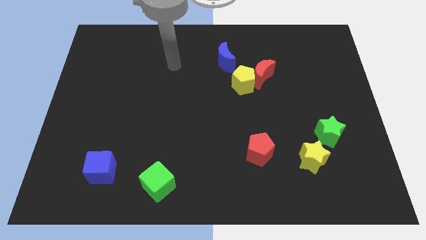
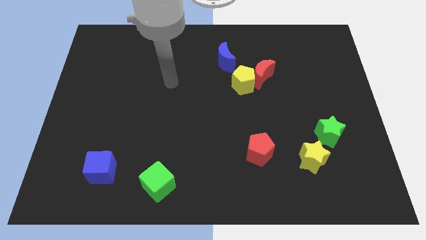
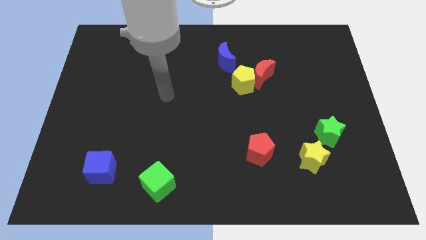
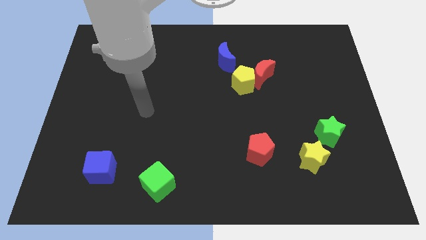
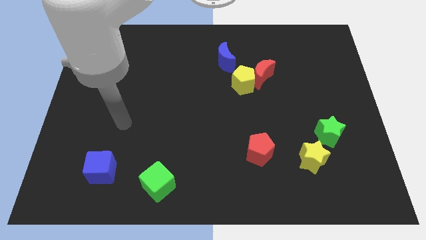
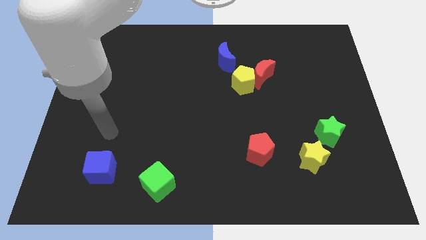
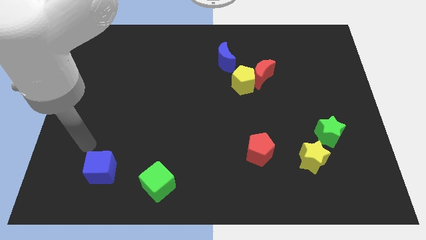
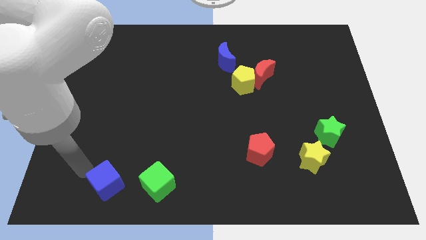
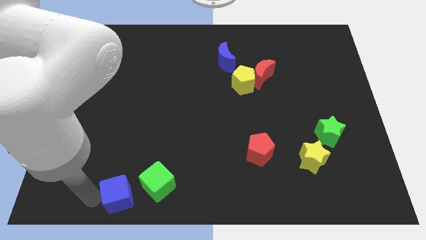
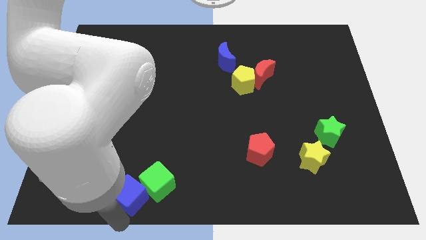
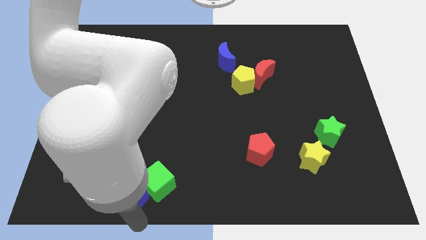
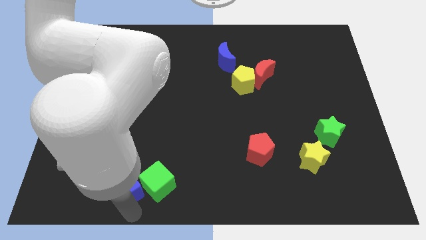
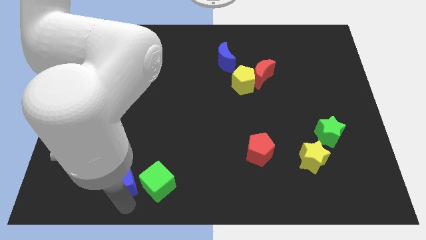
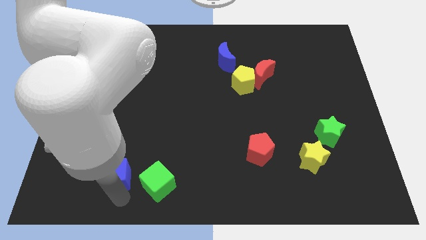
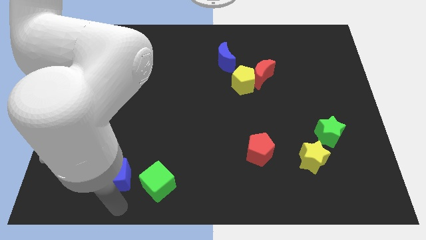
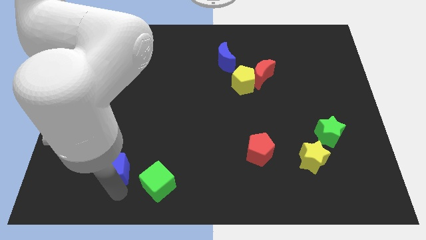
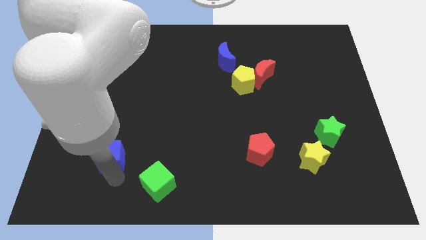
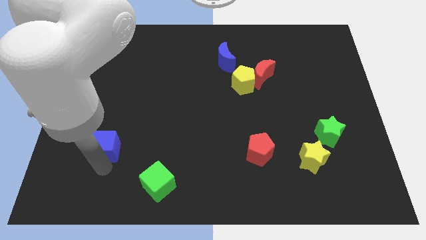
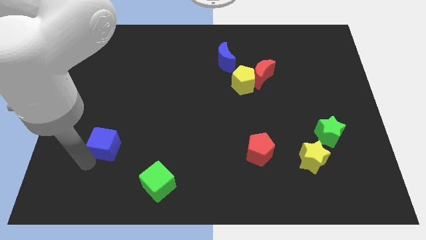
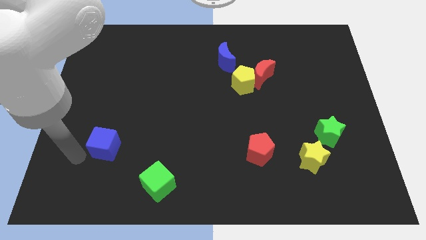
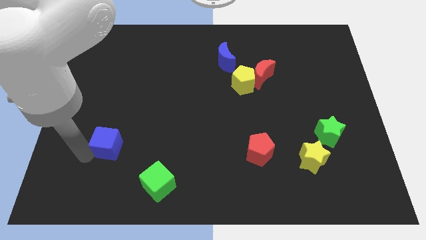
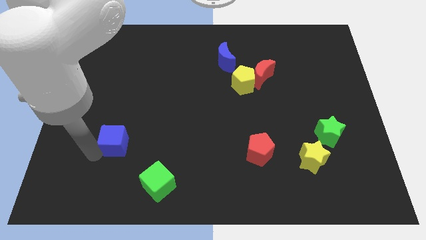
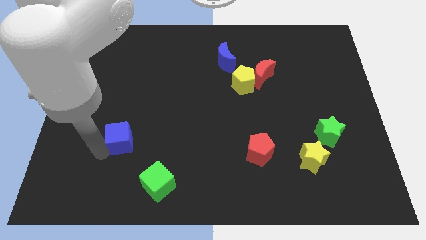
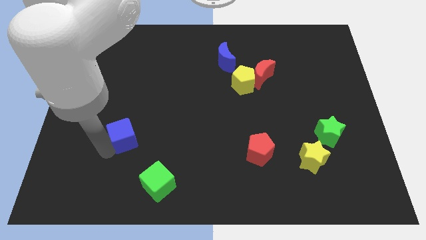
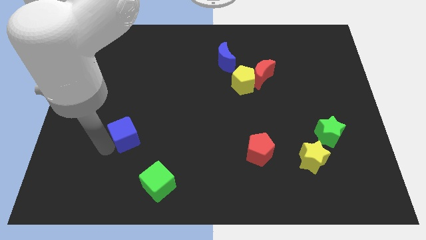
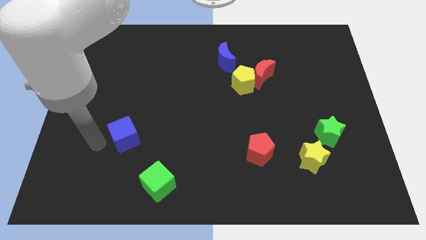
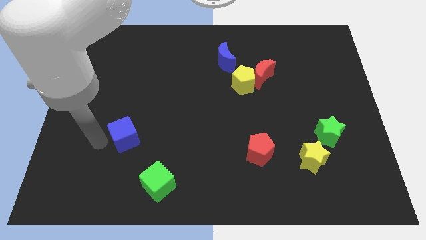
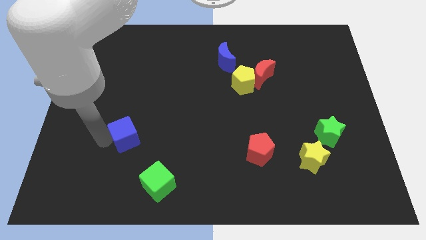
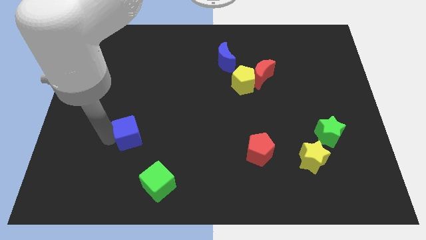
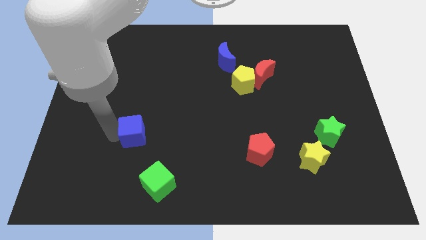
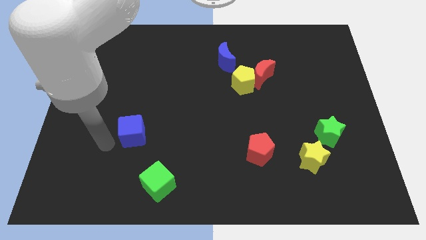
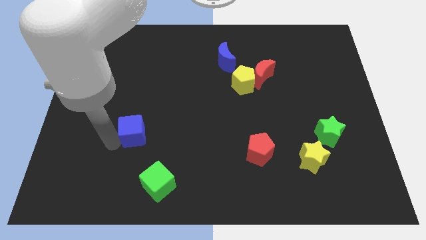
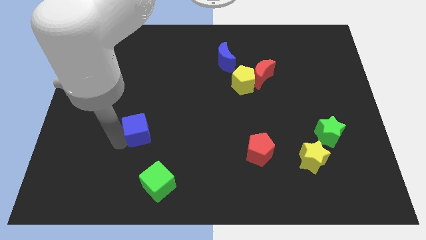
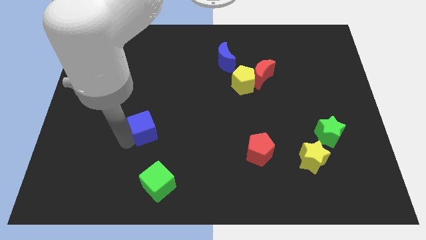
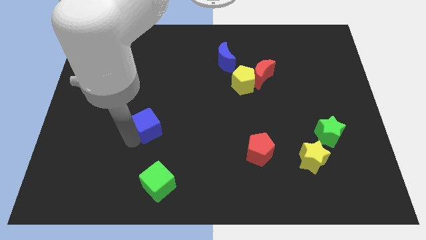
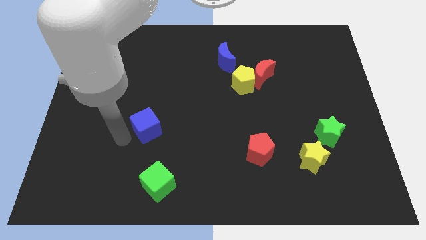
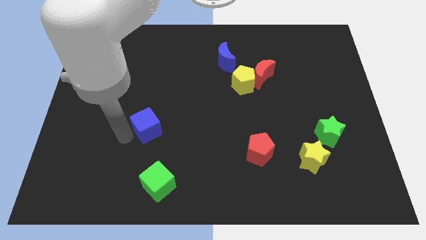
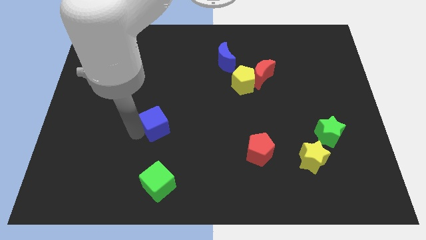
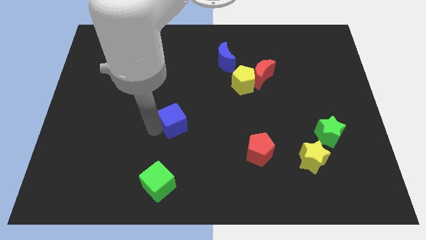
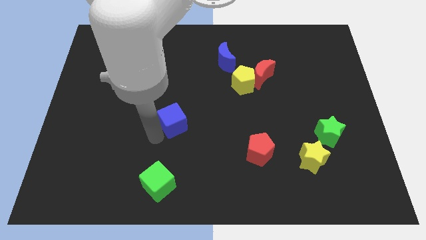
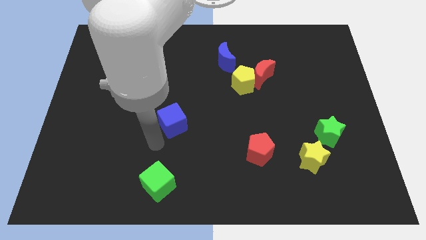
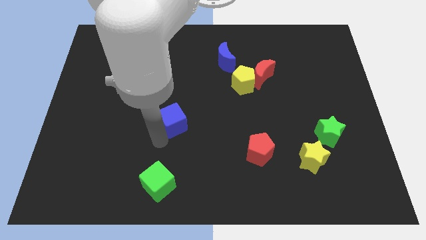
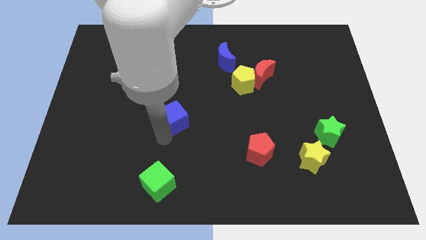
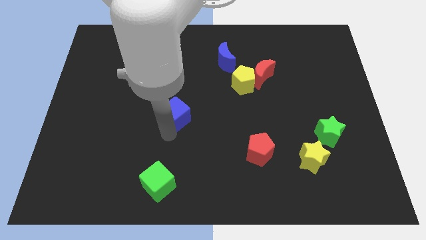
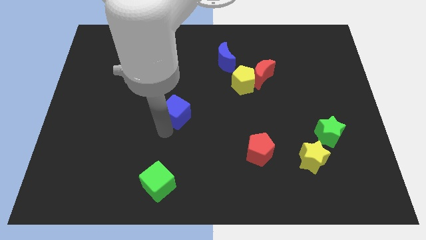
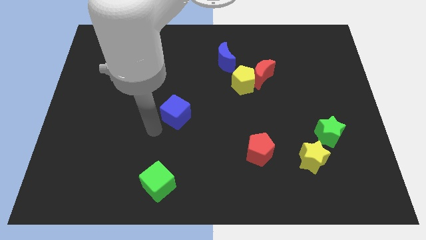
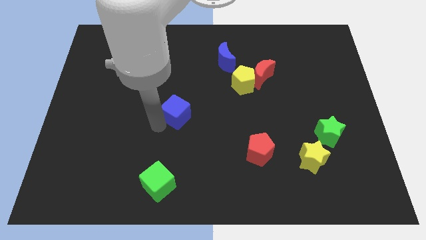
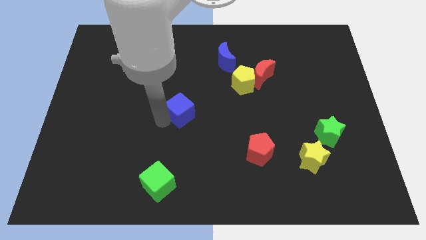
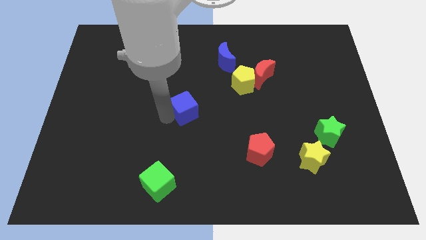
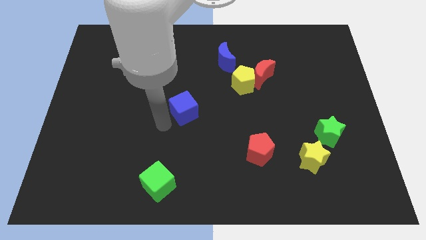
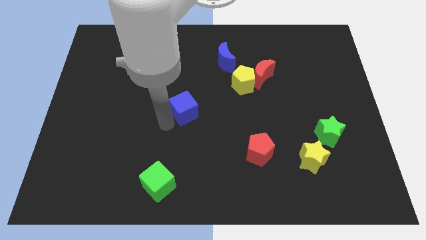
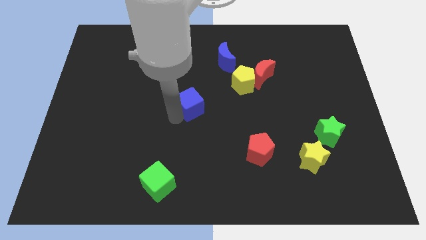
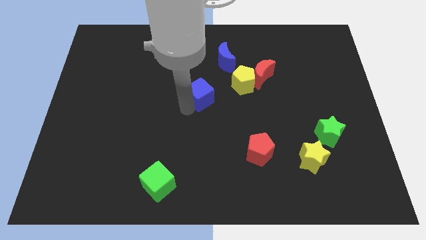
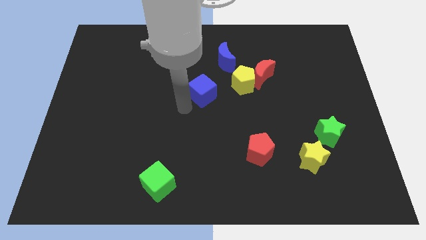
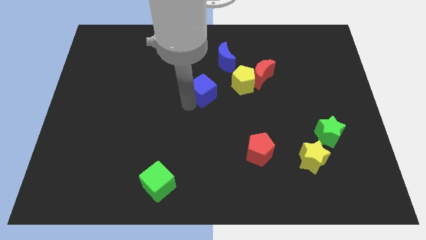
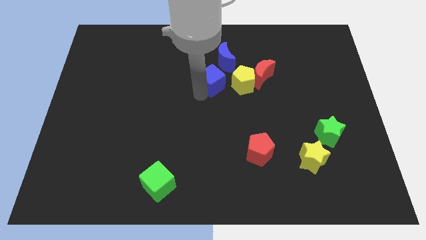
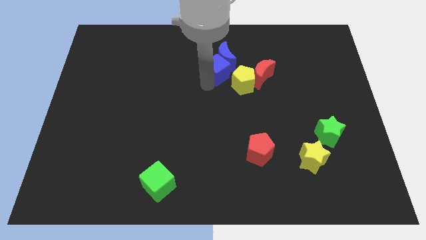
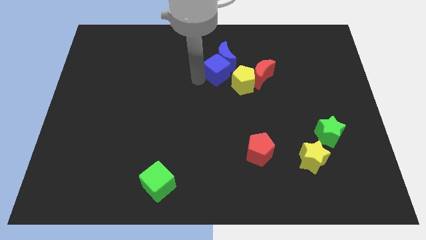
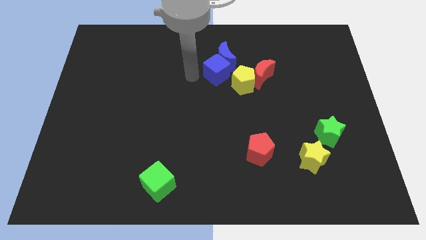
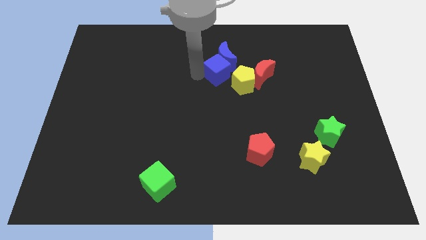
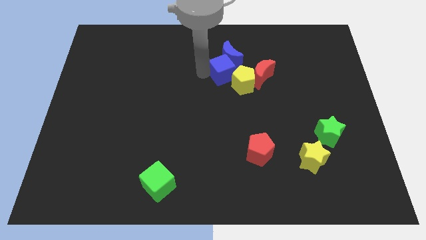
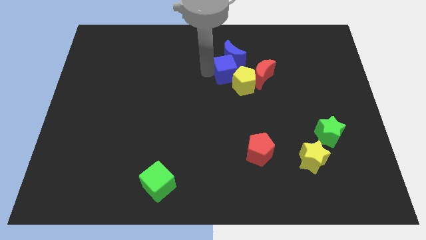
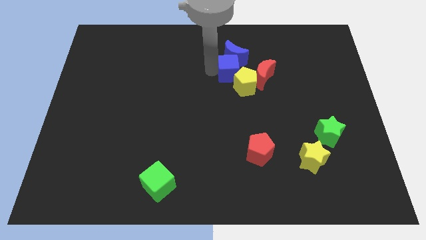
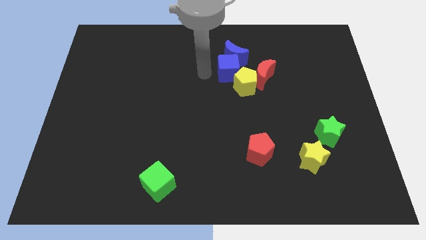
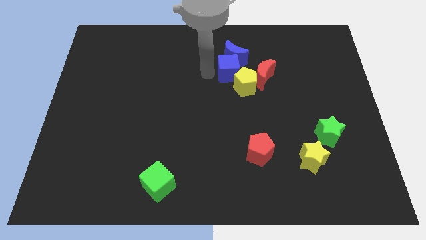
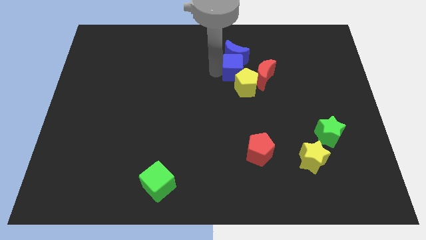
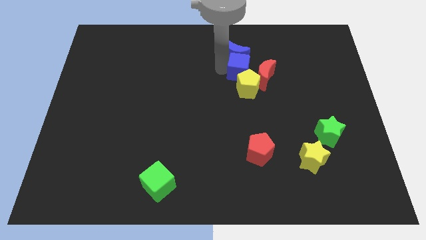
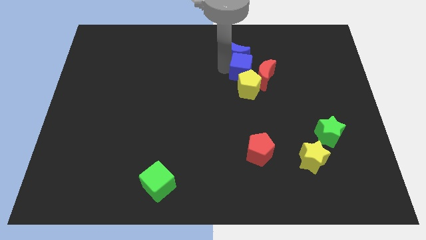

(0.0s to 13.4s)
push the blue cube towards the red moon

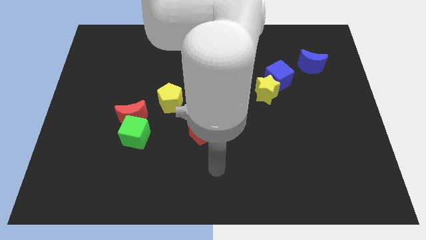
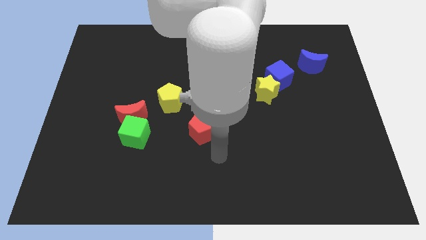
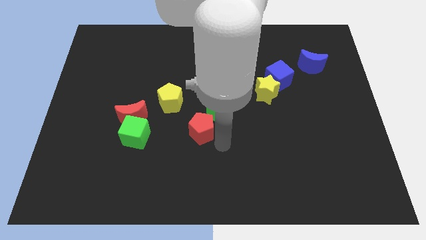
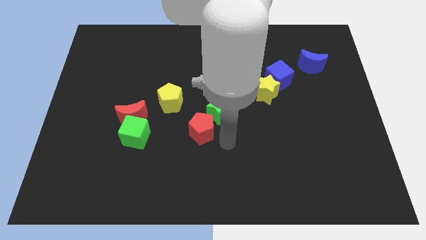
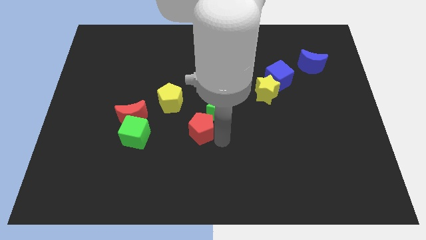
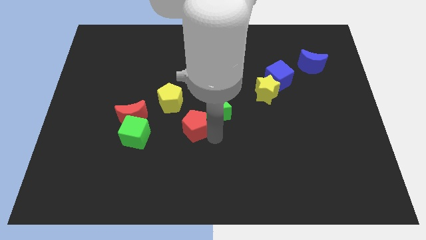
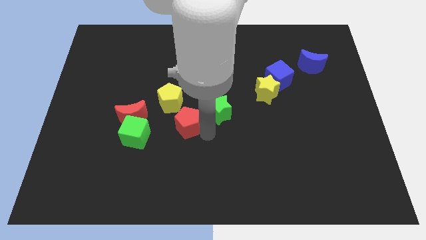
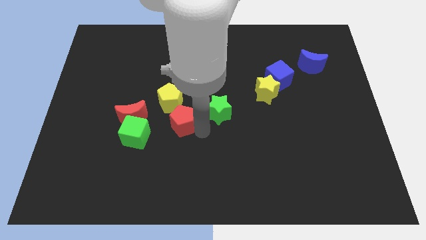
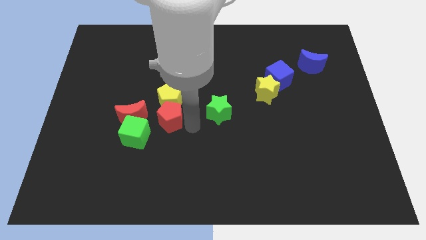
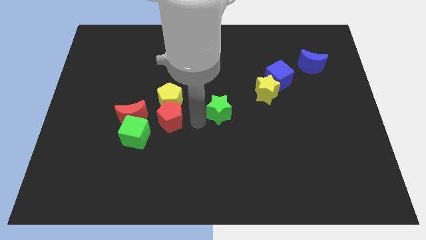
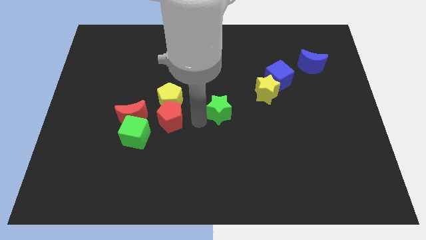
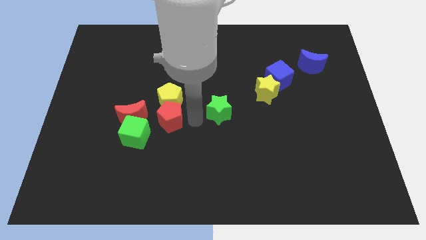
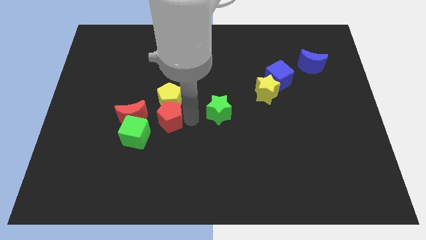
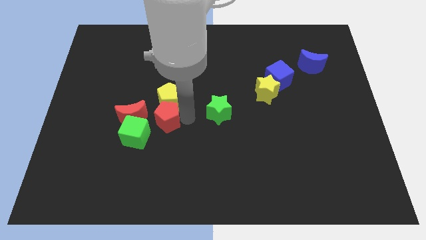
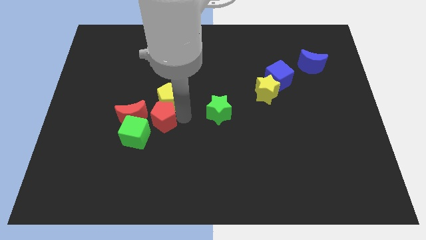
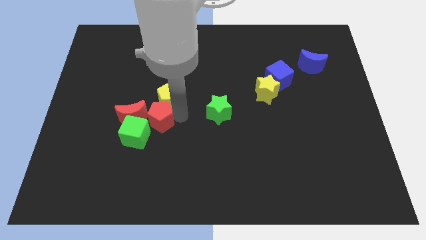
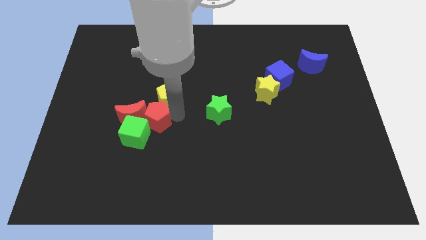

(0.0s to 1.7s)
put the red pentagon towards the red moon
